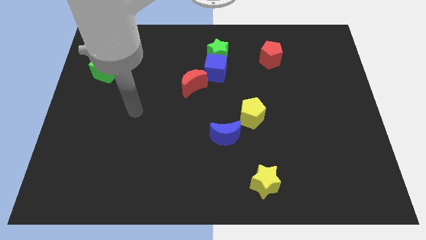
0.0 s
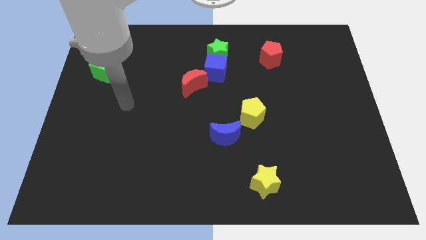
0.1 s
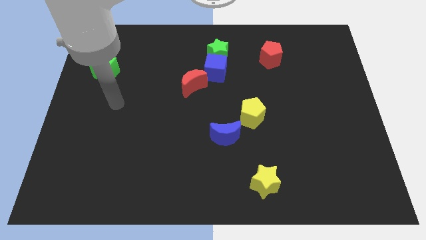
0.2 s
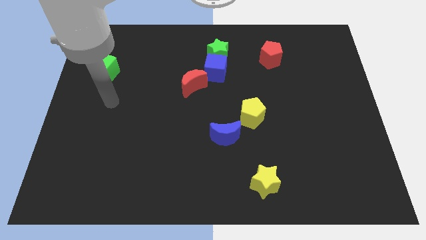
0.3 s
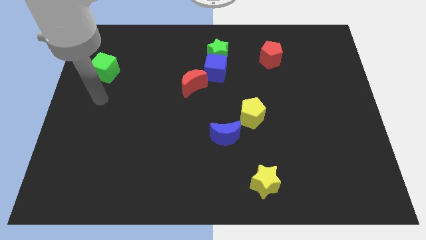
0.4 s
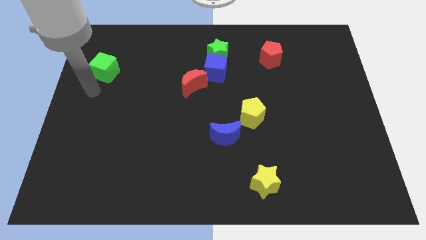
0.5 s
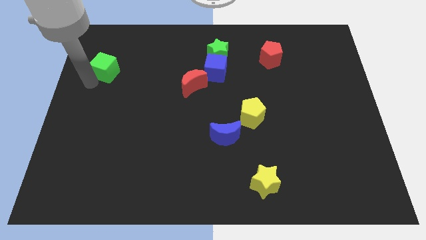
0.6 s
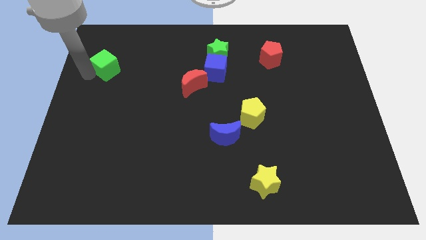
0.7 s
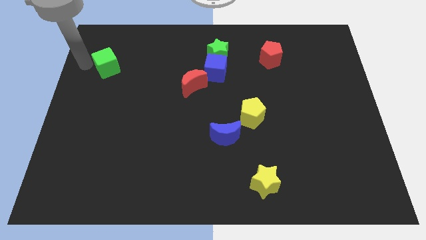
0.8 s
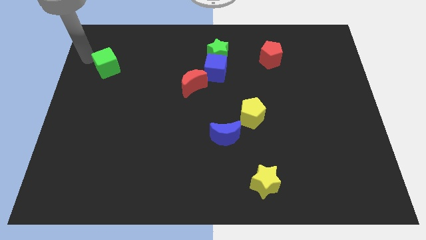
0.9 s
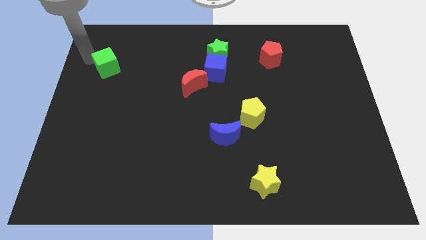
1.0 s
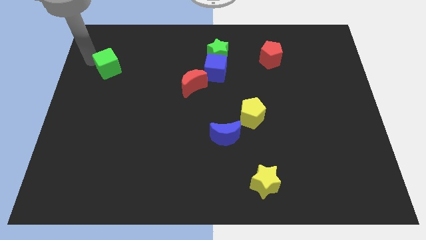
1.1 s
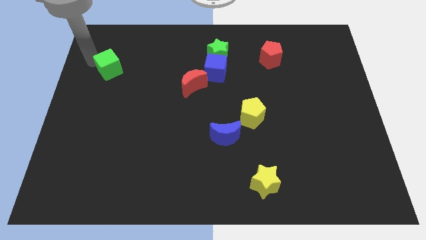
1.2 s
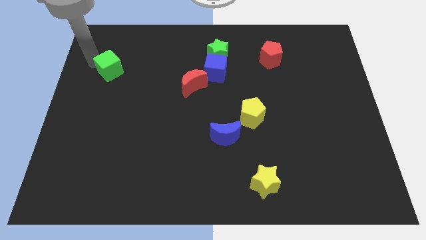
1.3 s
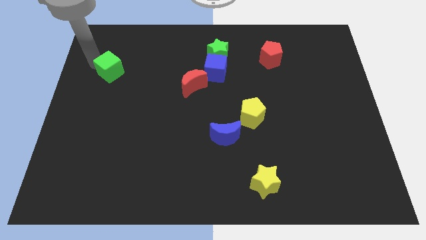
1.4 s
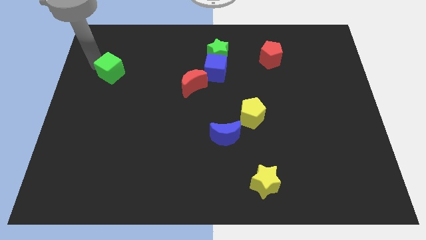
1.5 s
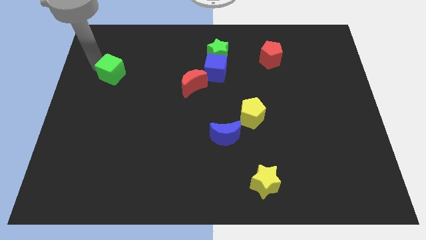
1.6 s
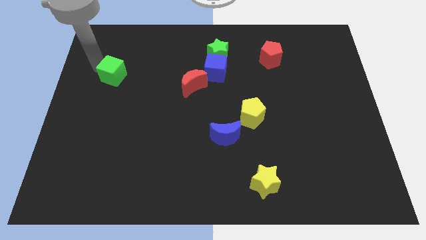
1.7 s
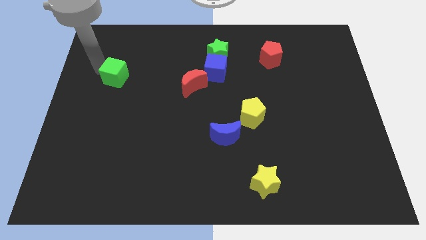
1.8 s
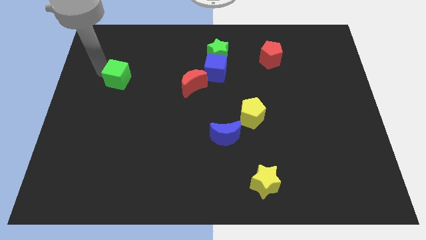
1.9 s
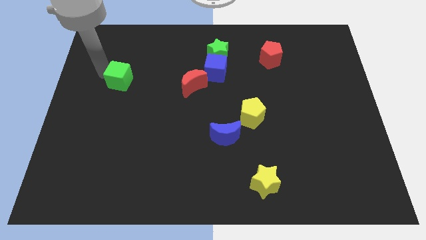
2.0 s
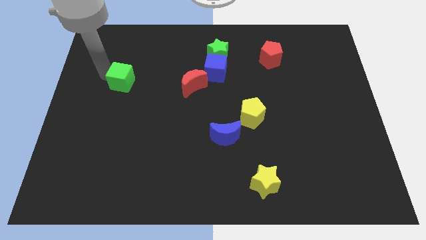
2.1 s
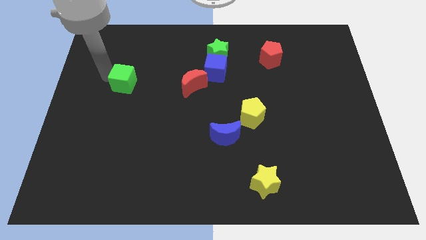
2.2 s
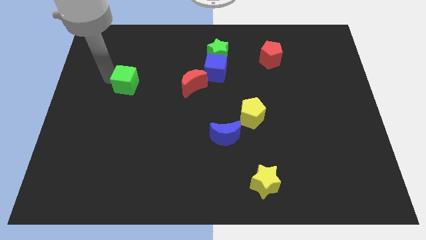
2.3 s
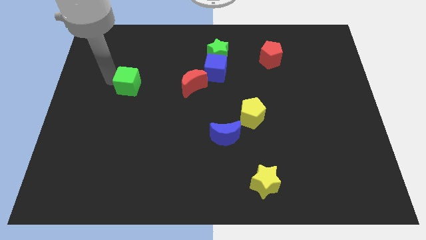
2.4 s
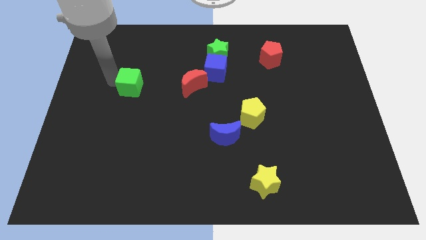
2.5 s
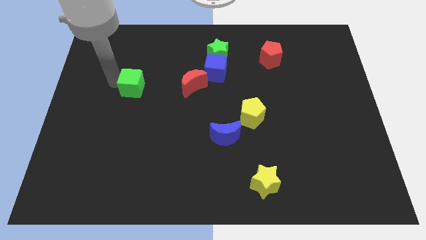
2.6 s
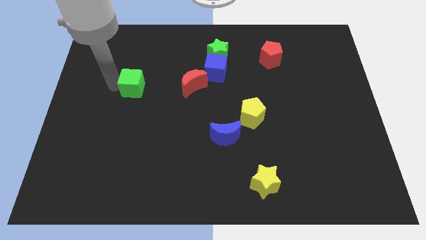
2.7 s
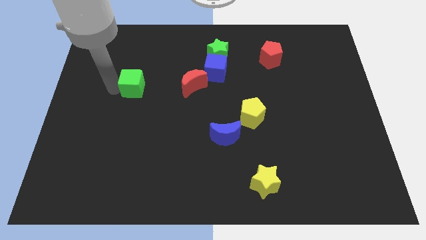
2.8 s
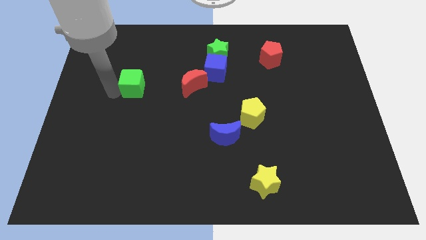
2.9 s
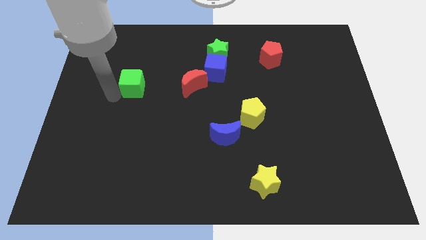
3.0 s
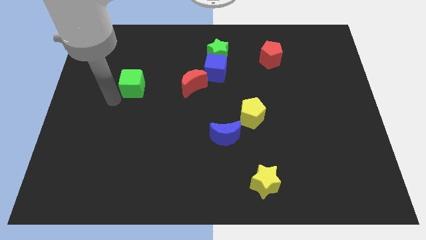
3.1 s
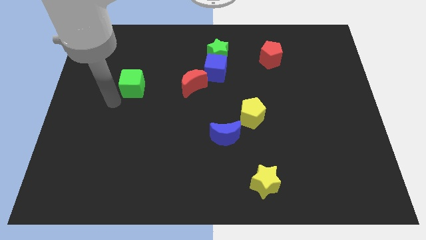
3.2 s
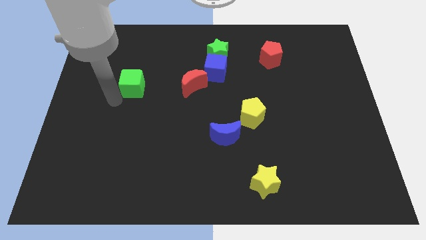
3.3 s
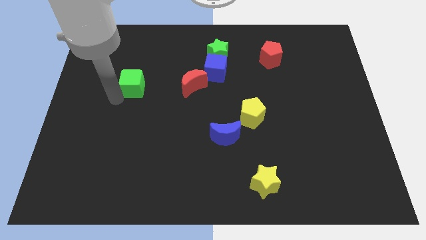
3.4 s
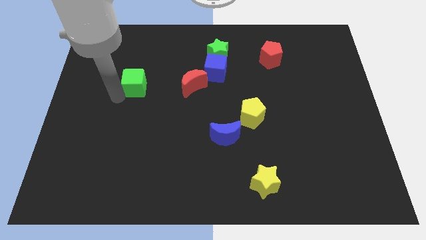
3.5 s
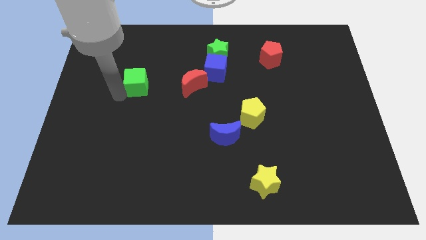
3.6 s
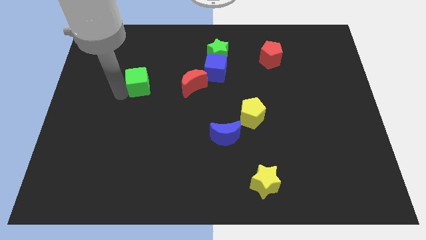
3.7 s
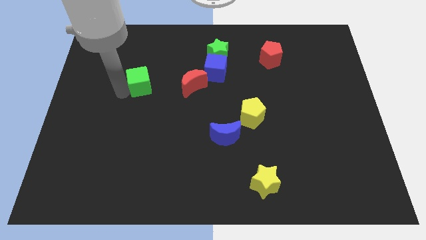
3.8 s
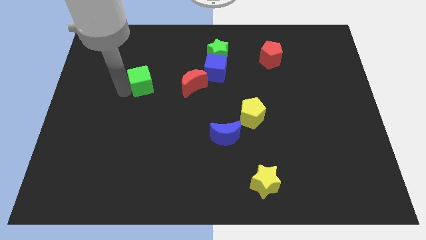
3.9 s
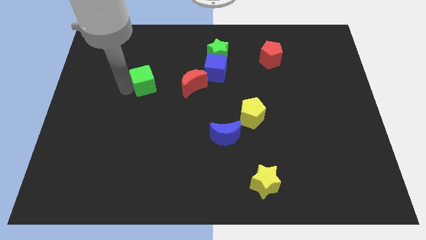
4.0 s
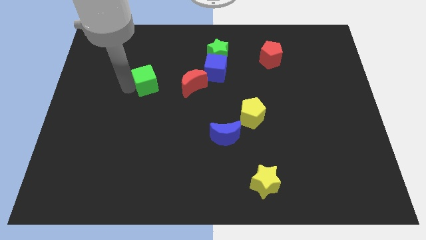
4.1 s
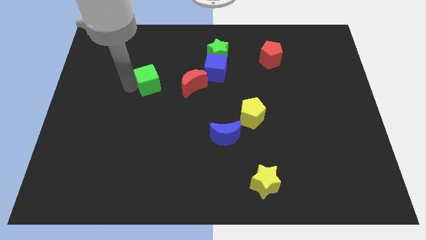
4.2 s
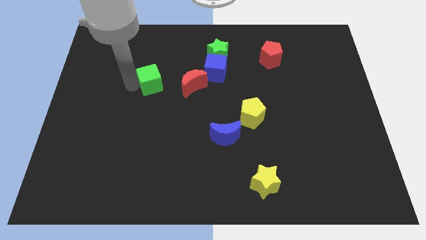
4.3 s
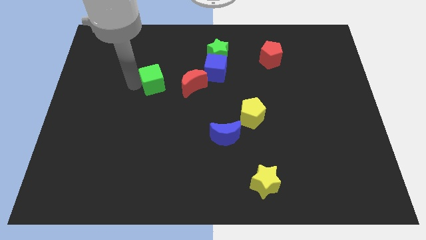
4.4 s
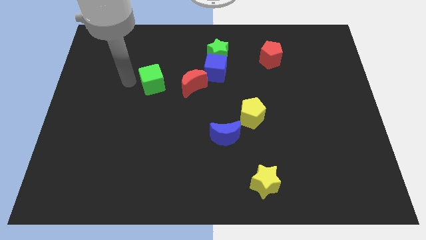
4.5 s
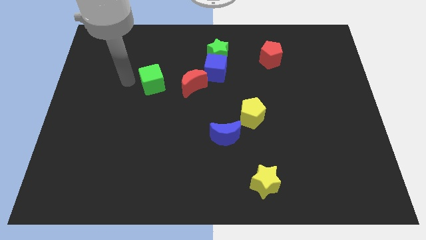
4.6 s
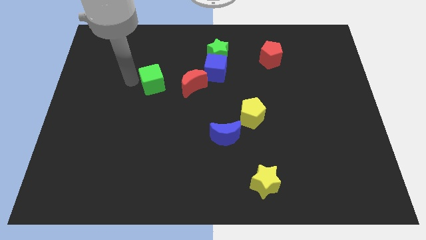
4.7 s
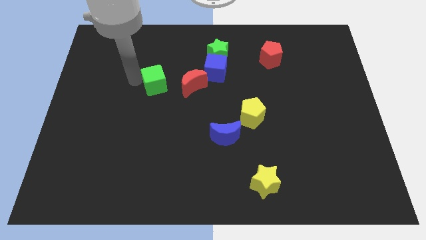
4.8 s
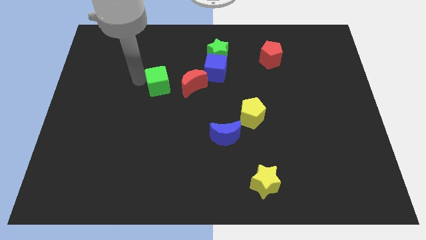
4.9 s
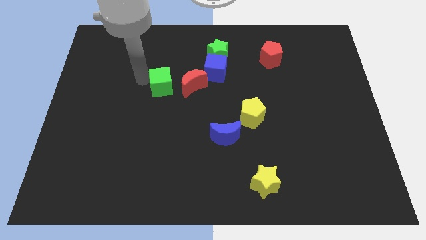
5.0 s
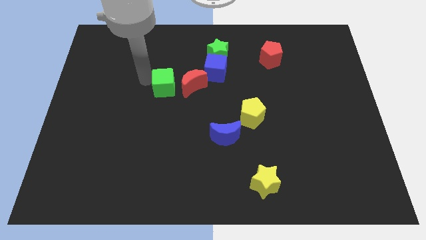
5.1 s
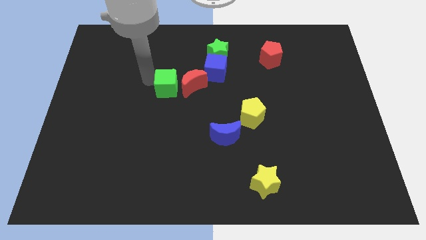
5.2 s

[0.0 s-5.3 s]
push the green cube towards the red moon

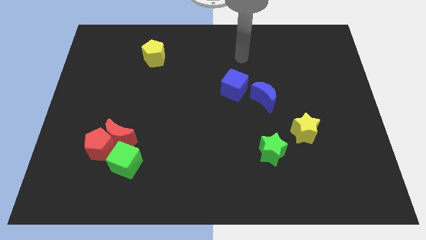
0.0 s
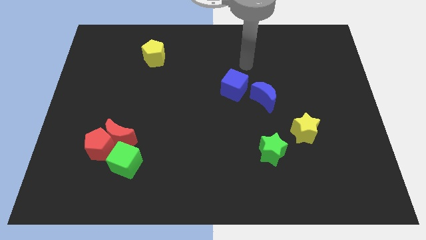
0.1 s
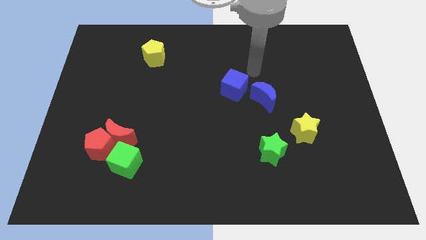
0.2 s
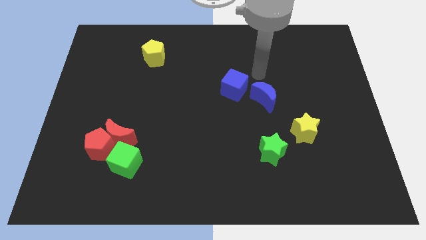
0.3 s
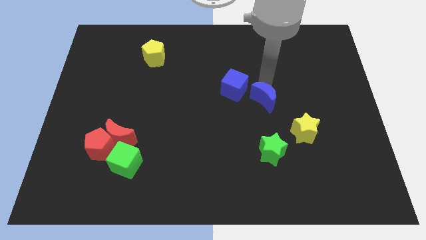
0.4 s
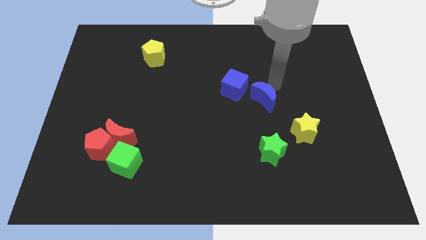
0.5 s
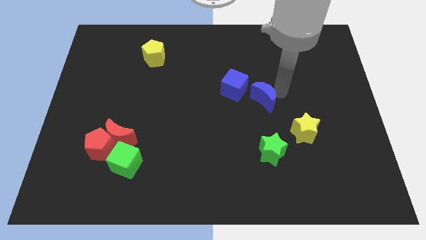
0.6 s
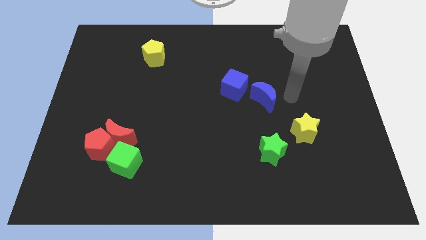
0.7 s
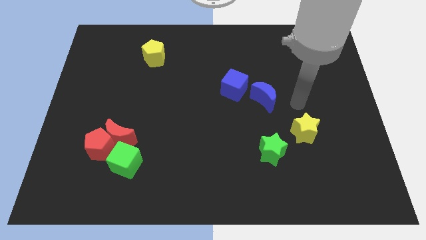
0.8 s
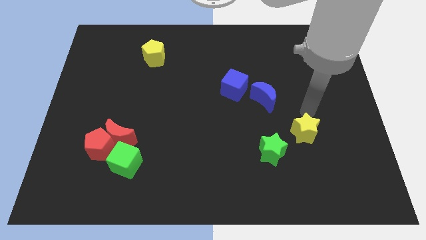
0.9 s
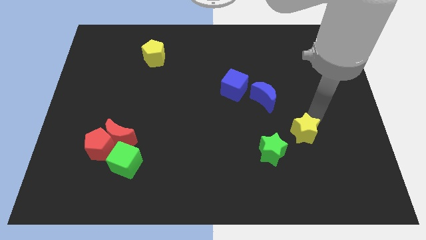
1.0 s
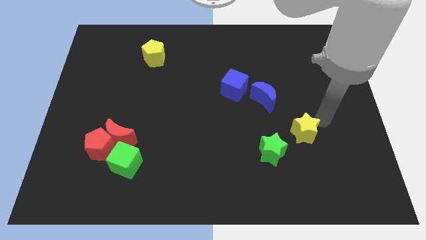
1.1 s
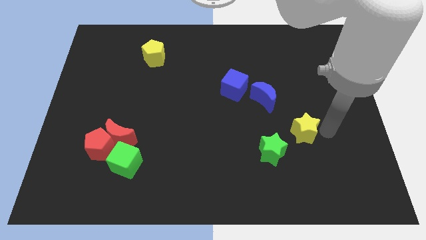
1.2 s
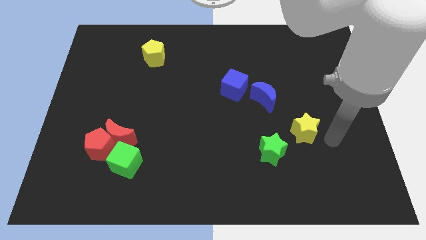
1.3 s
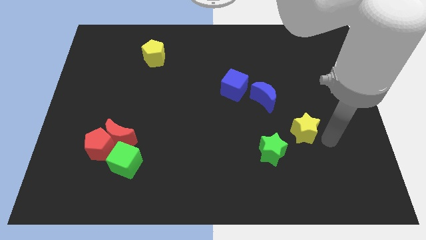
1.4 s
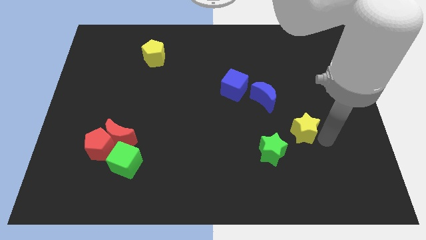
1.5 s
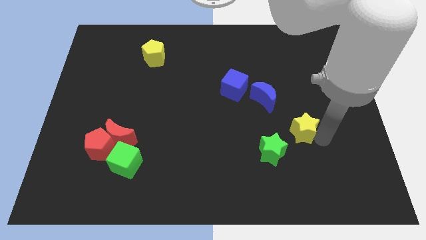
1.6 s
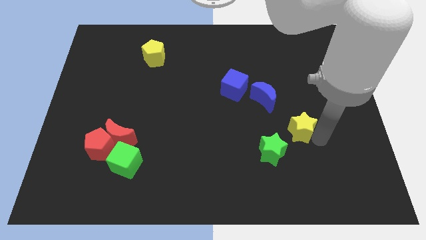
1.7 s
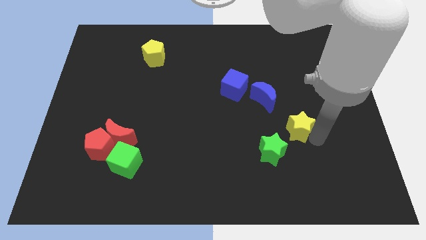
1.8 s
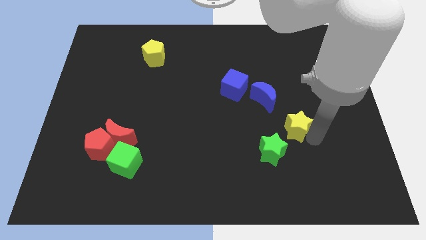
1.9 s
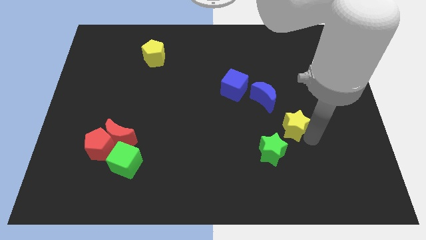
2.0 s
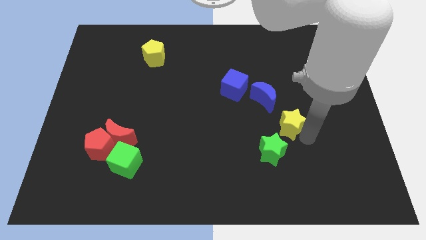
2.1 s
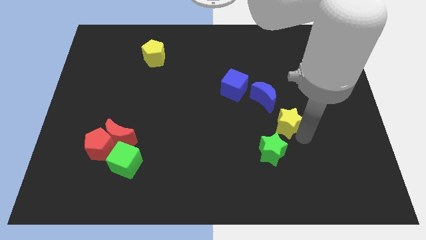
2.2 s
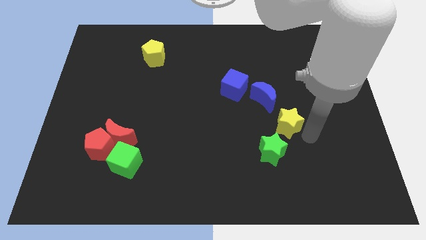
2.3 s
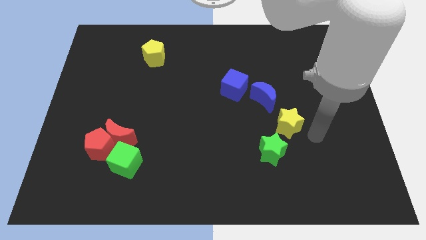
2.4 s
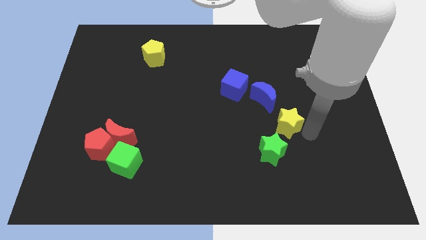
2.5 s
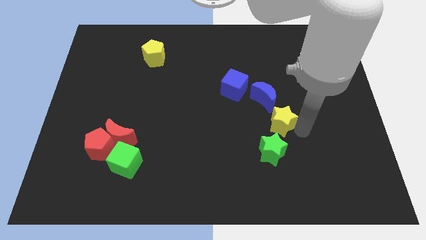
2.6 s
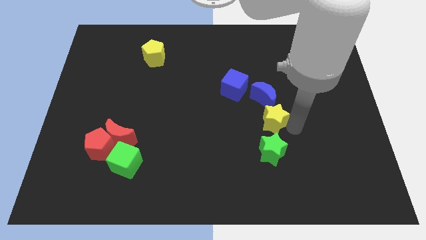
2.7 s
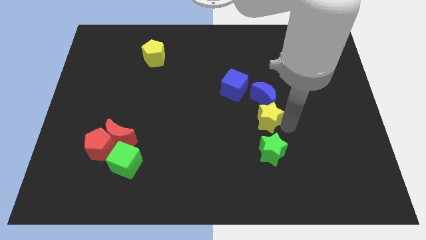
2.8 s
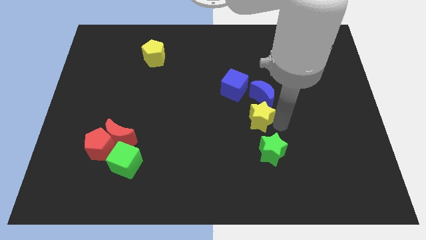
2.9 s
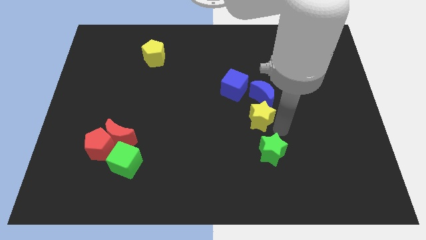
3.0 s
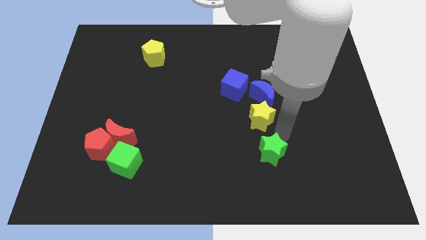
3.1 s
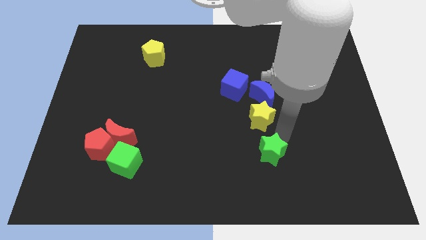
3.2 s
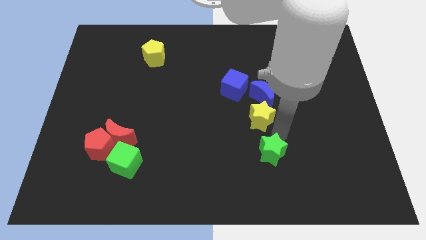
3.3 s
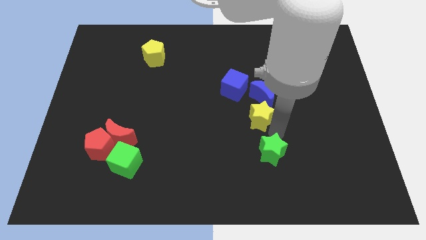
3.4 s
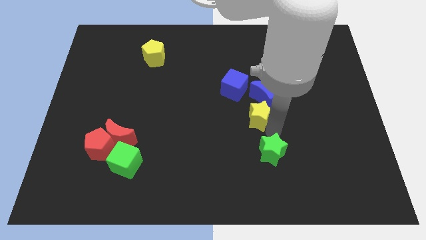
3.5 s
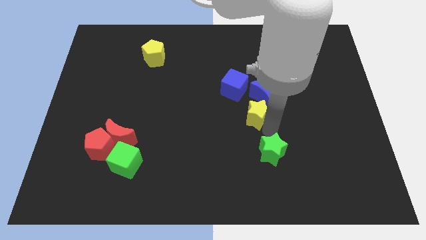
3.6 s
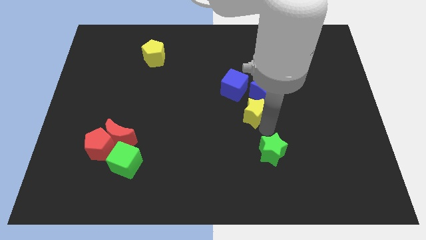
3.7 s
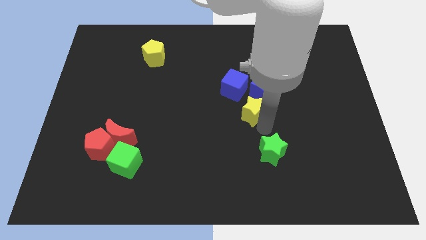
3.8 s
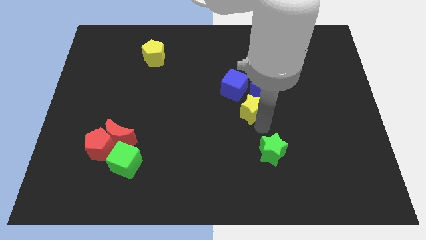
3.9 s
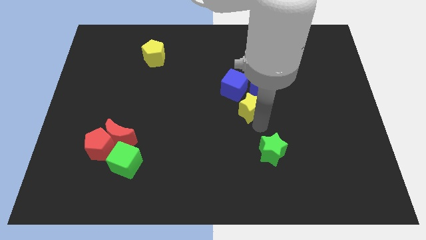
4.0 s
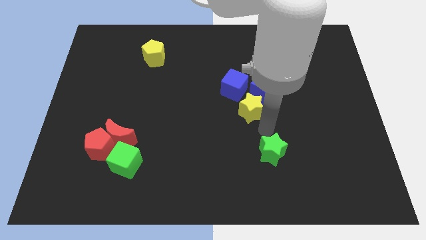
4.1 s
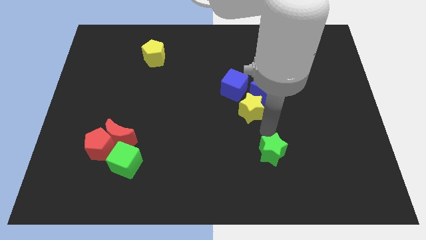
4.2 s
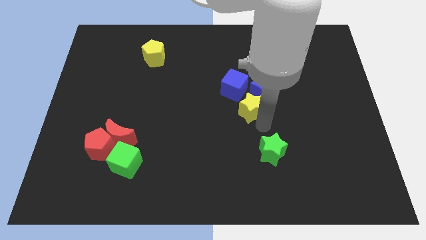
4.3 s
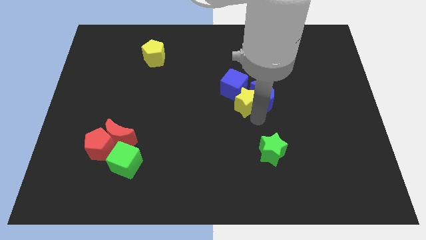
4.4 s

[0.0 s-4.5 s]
slide the yellow star close to the blue cube
